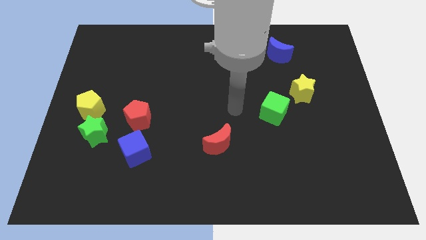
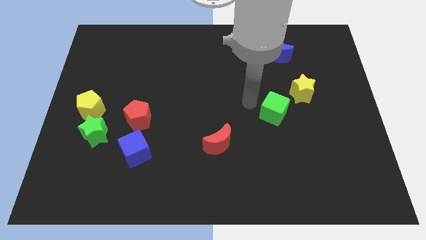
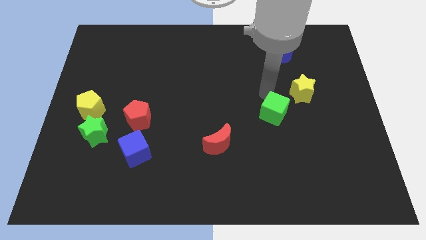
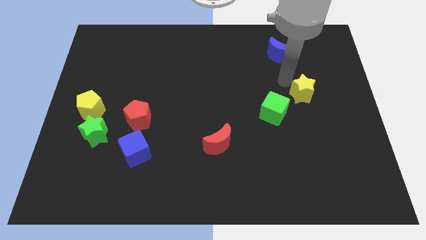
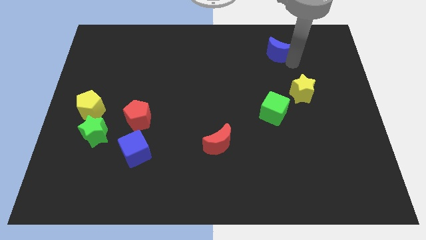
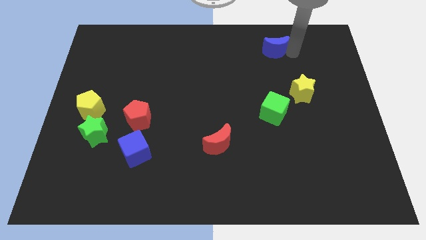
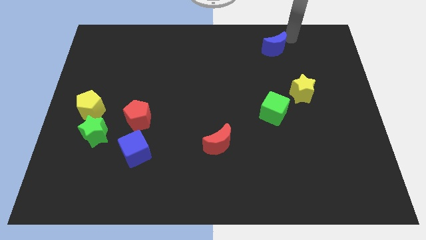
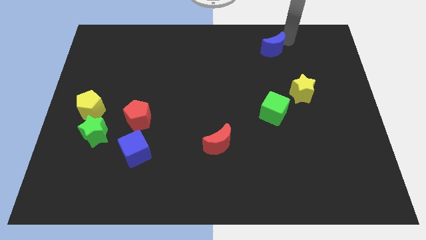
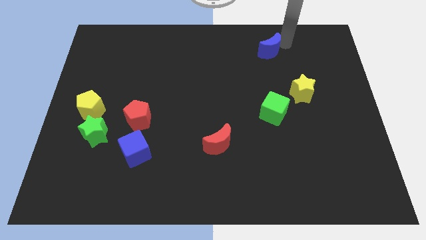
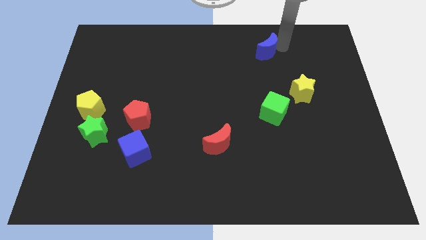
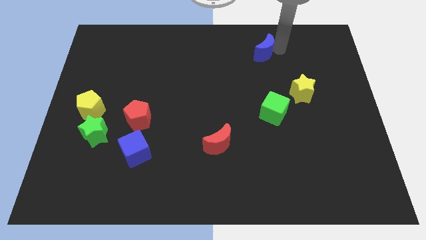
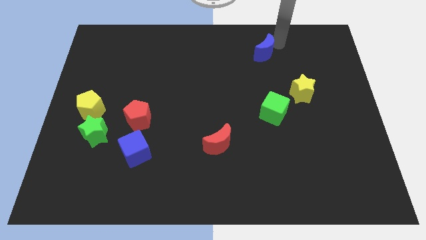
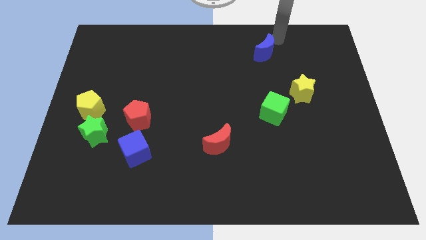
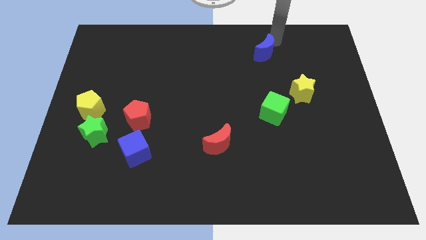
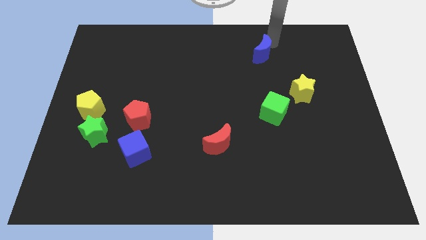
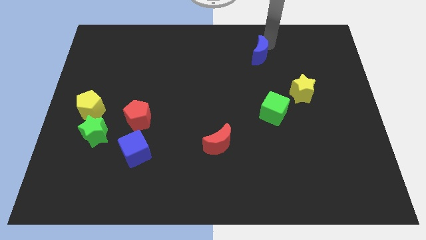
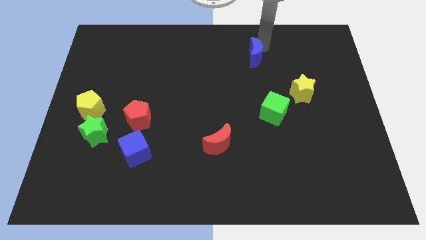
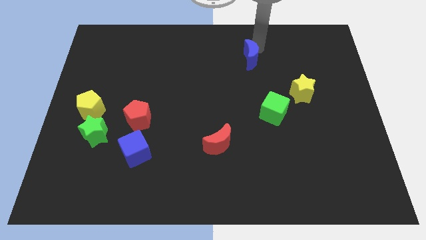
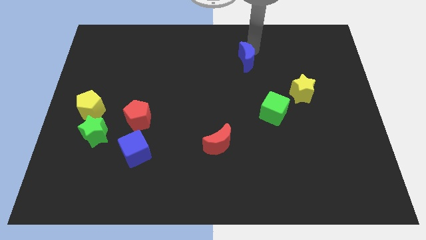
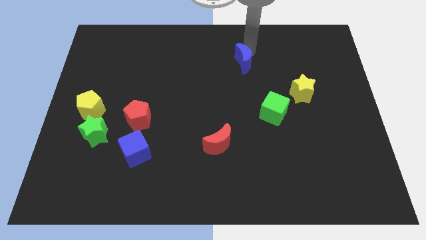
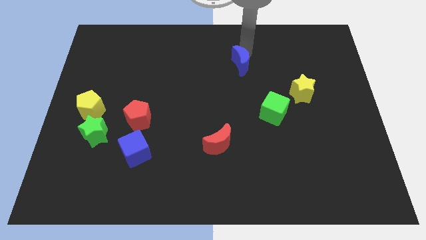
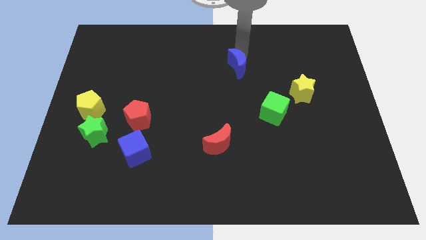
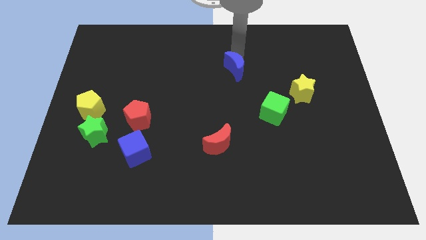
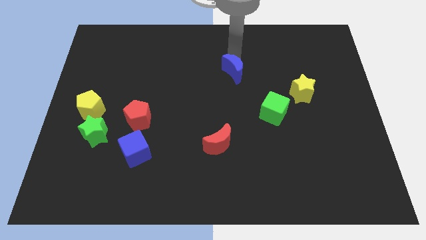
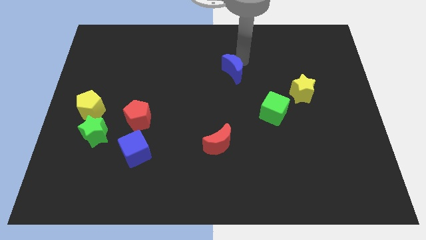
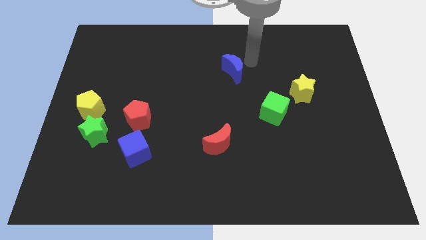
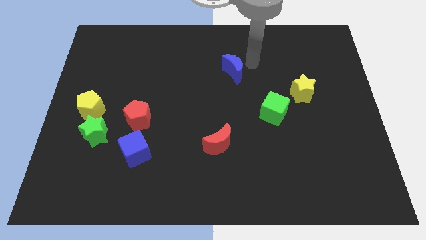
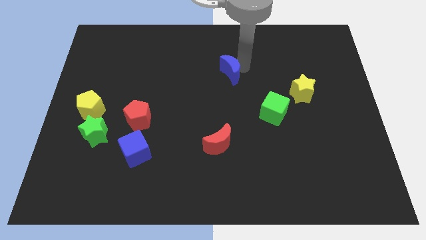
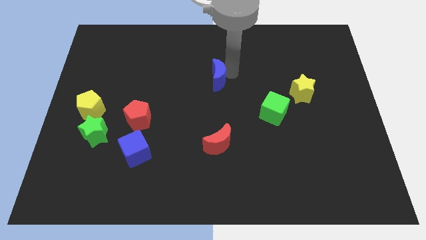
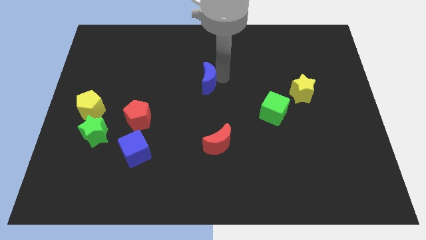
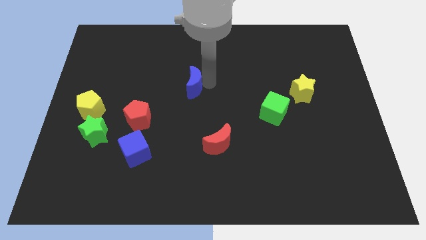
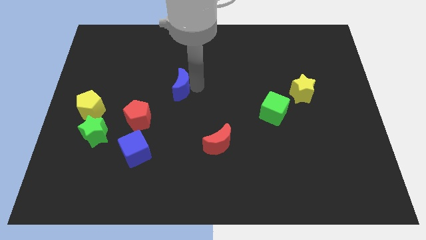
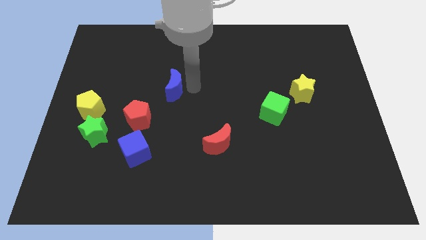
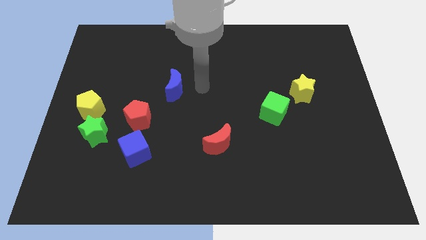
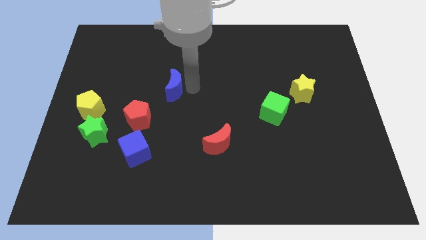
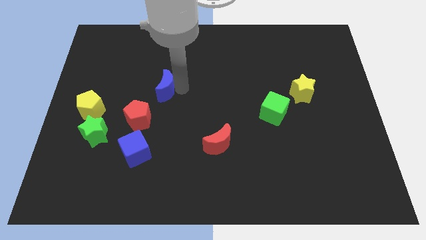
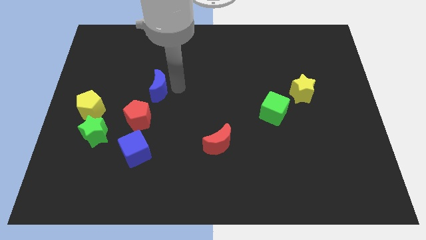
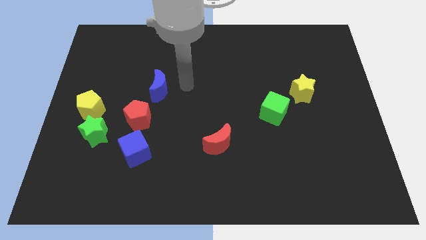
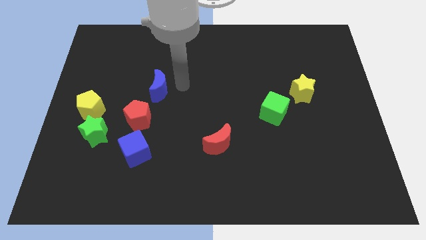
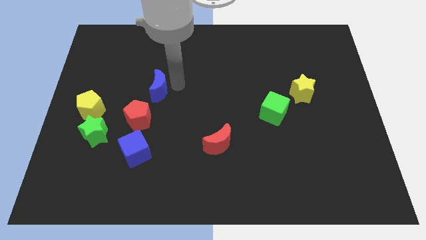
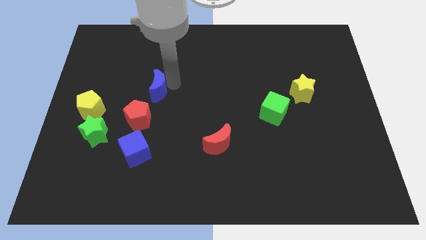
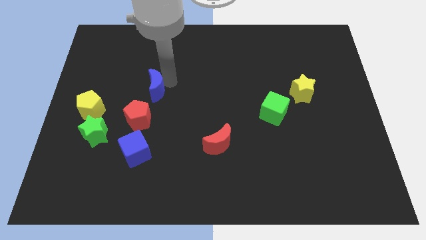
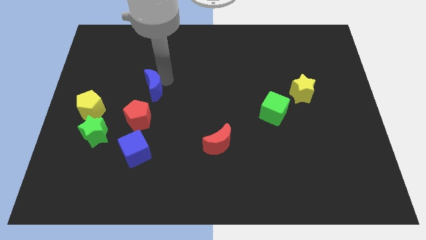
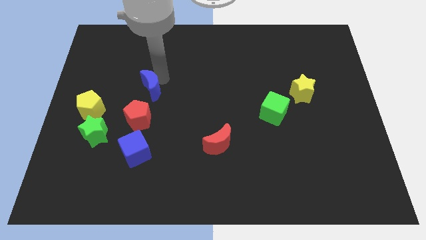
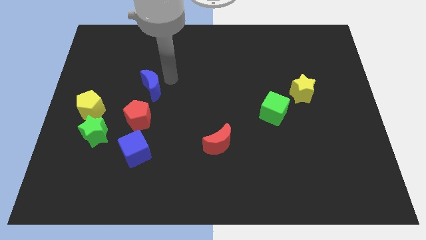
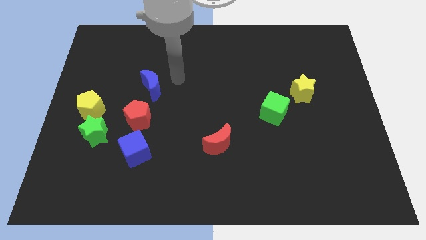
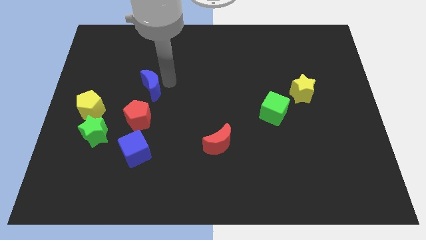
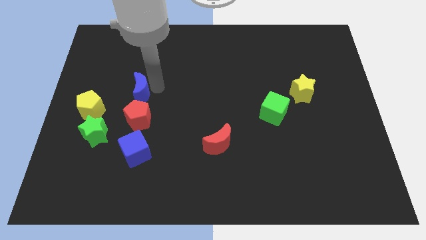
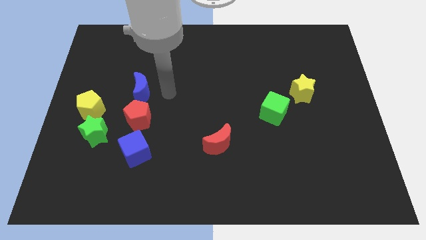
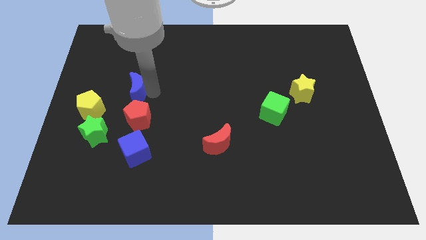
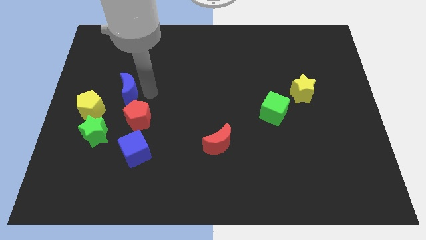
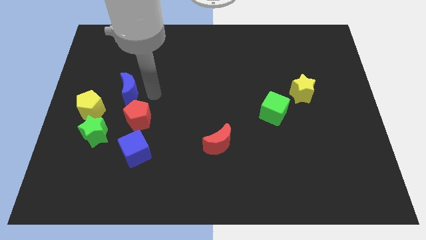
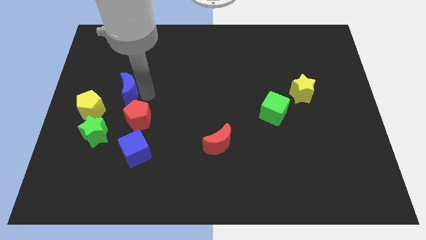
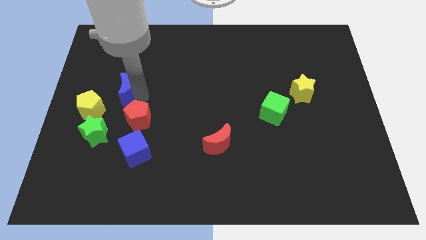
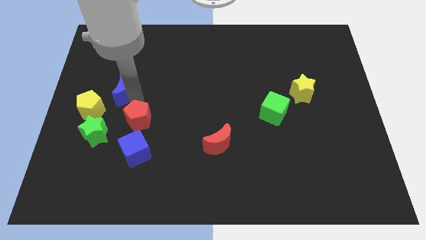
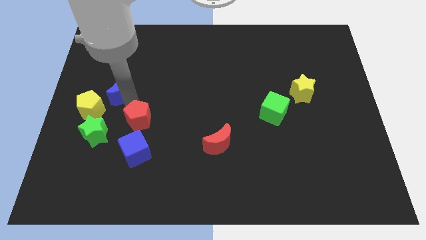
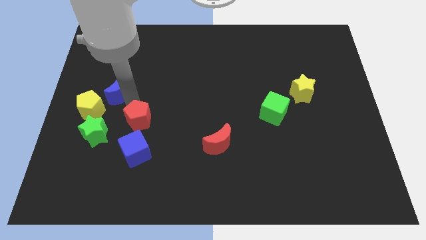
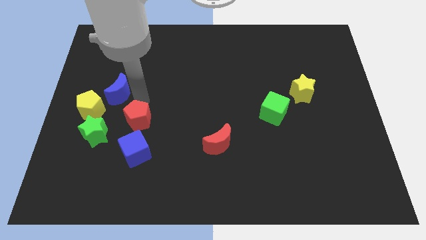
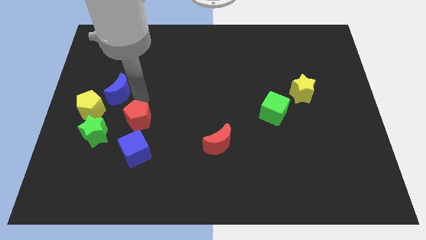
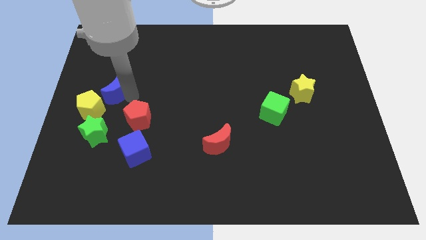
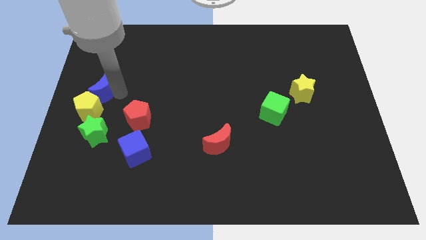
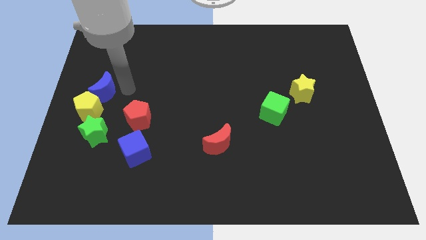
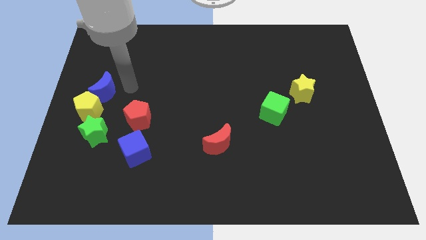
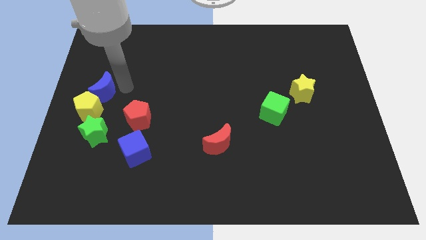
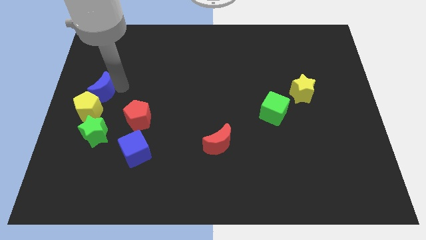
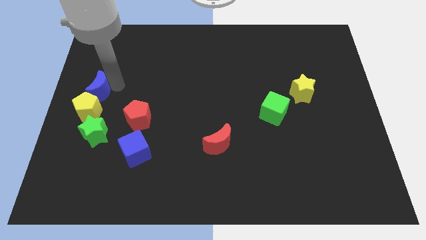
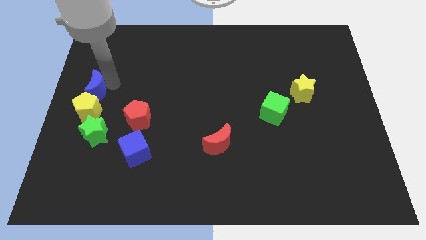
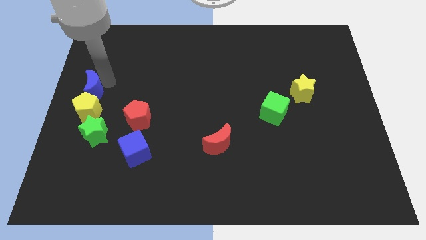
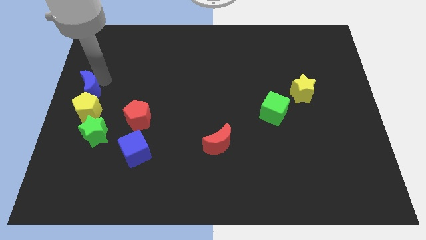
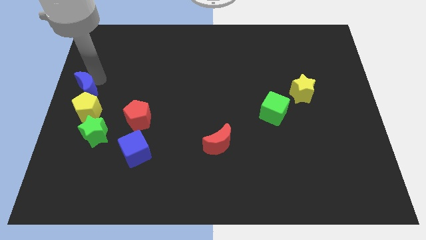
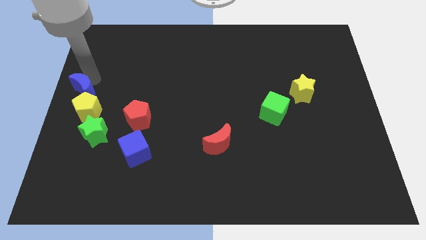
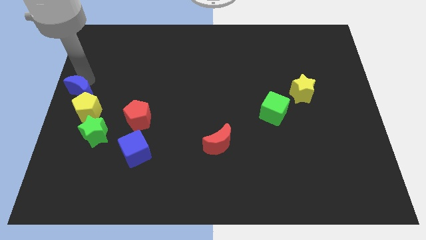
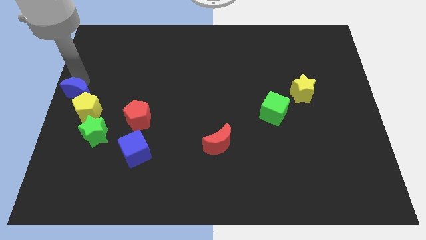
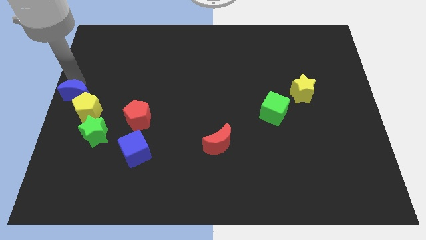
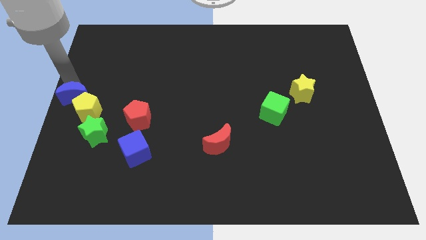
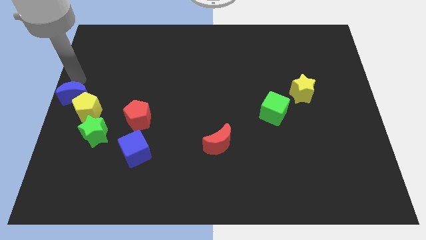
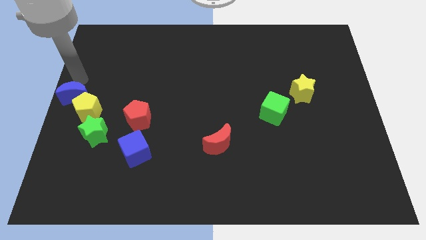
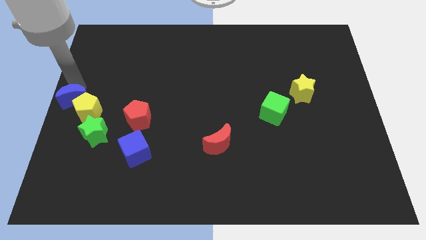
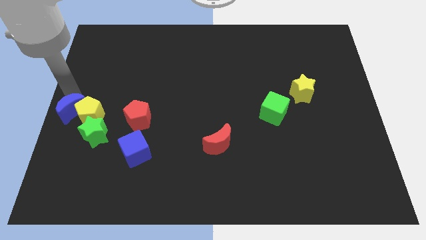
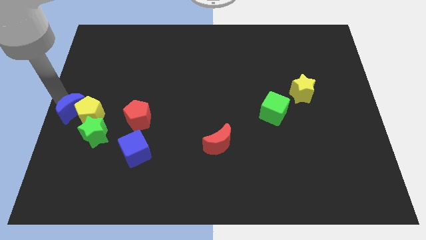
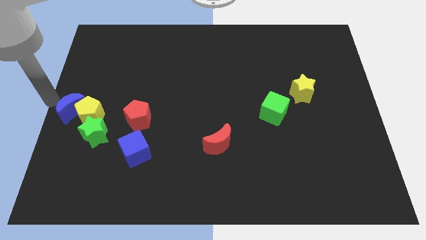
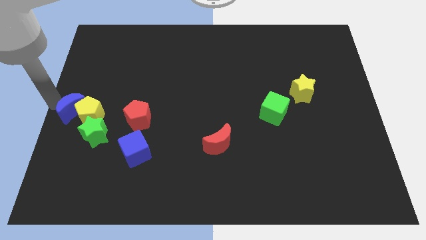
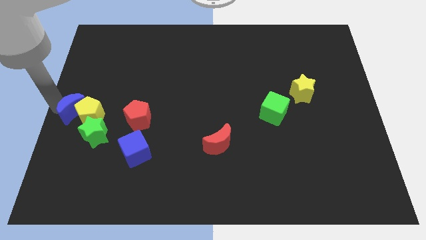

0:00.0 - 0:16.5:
slide the blue moon left of the red pentagon
